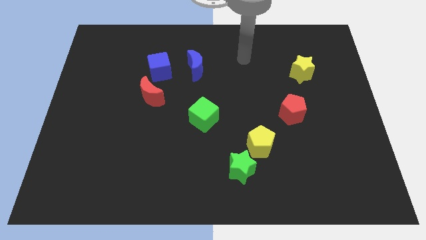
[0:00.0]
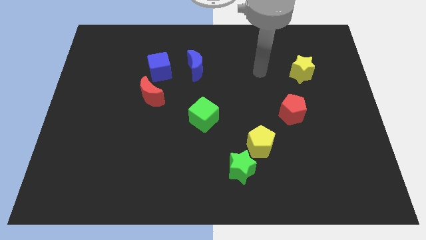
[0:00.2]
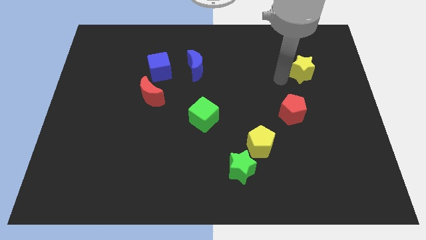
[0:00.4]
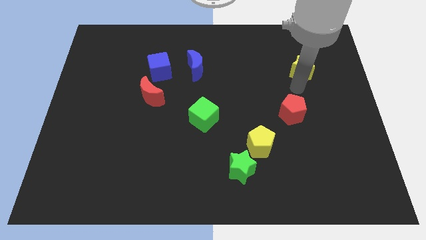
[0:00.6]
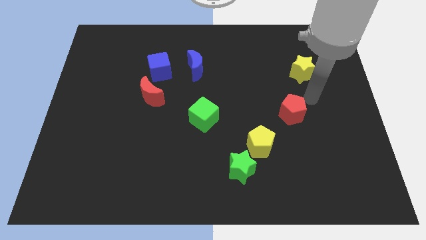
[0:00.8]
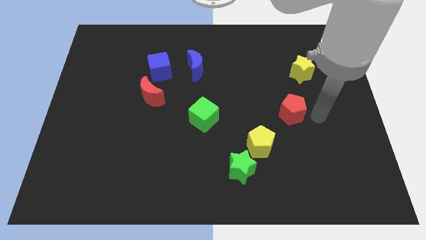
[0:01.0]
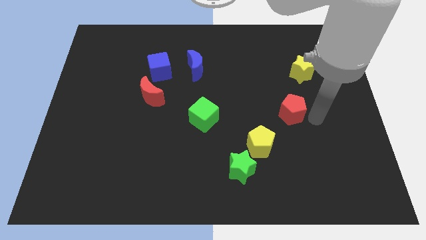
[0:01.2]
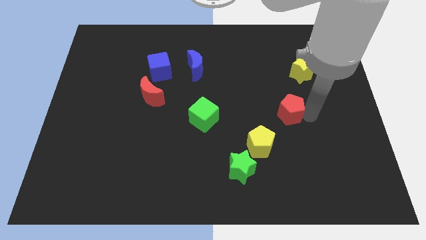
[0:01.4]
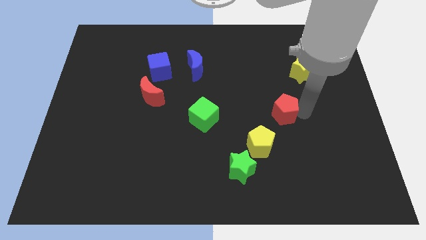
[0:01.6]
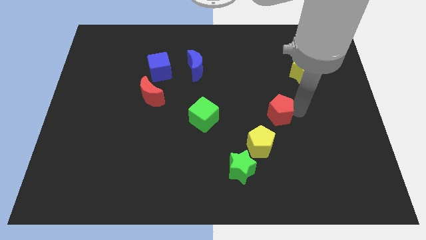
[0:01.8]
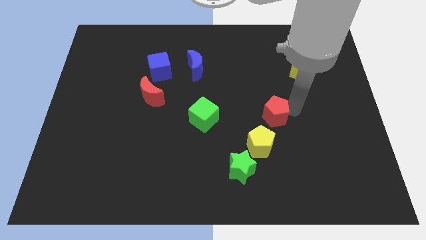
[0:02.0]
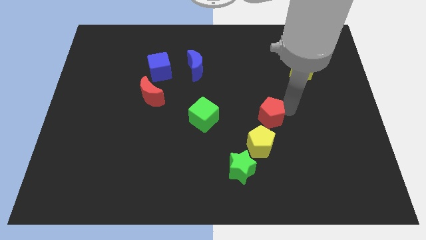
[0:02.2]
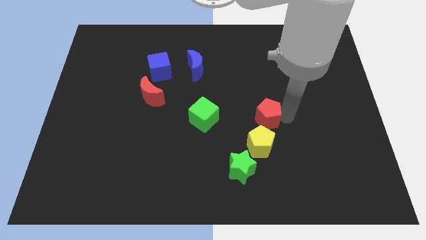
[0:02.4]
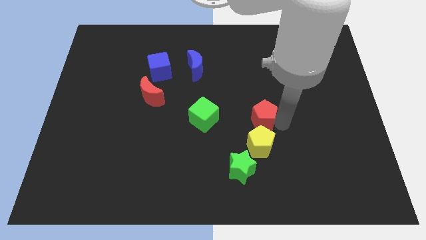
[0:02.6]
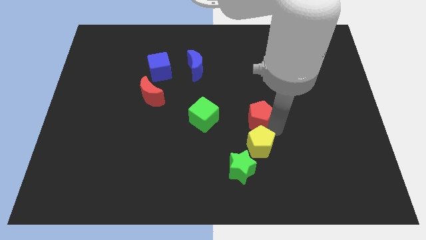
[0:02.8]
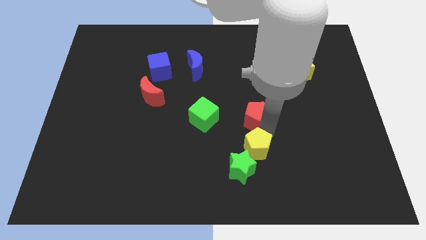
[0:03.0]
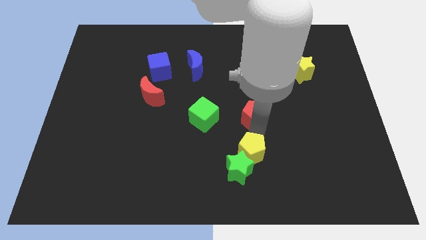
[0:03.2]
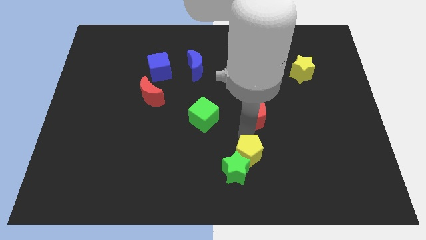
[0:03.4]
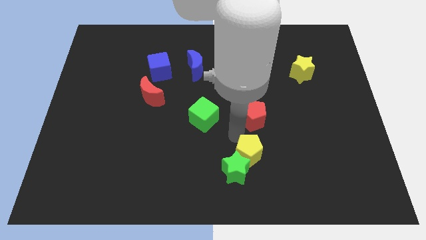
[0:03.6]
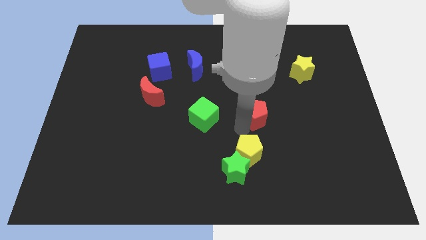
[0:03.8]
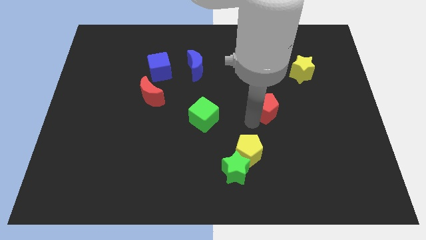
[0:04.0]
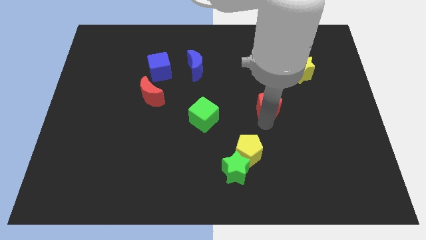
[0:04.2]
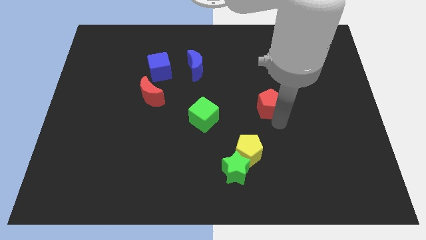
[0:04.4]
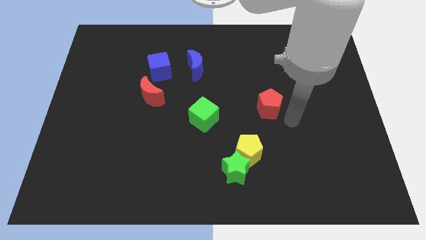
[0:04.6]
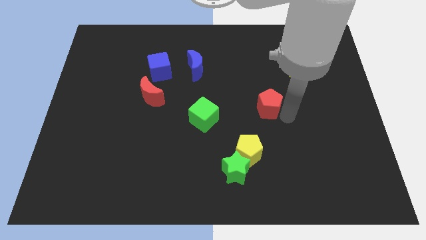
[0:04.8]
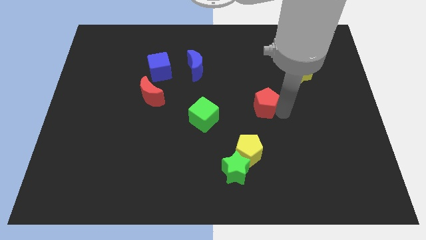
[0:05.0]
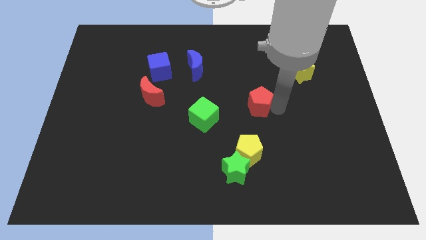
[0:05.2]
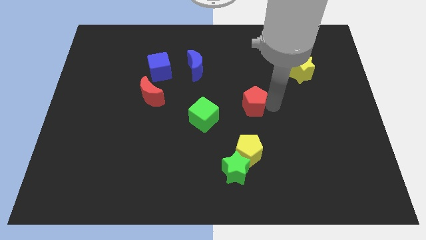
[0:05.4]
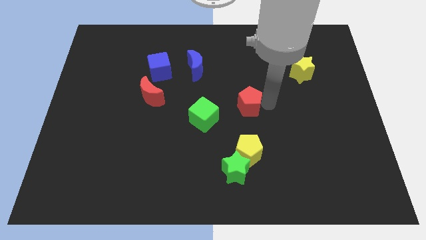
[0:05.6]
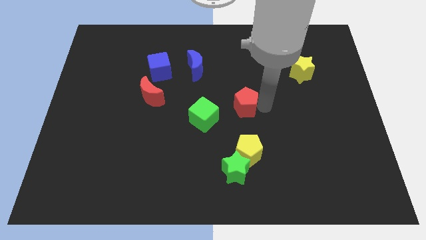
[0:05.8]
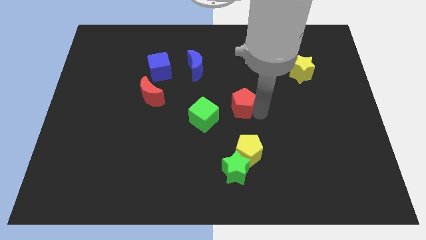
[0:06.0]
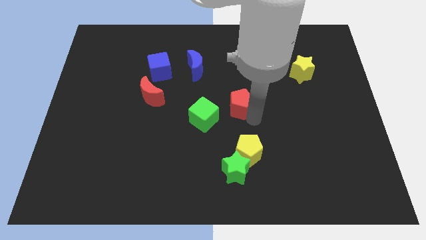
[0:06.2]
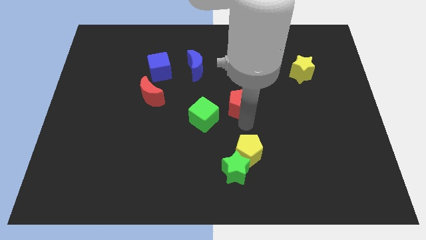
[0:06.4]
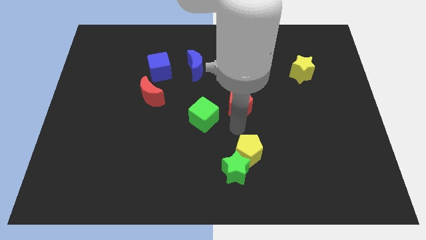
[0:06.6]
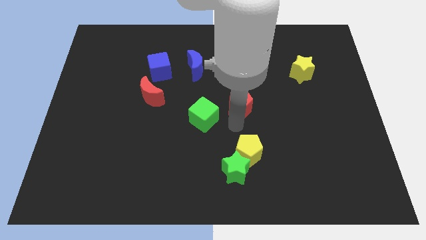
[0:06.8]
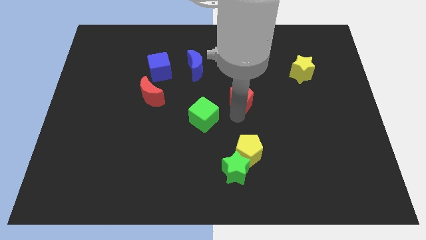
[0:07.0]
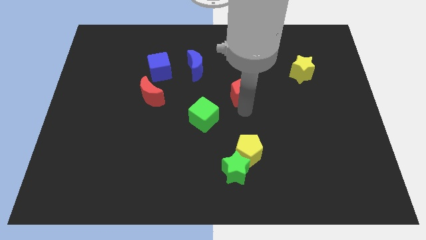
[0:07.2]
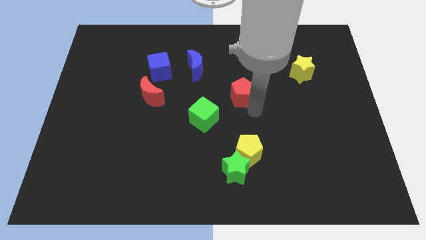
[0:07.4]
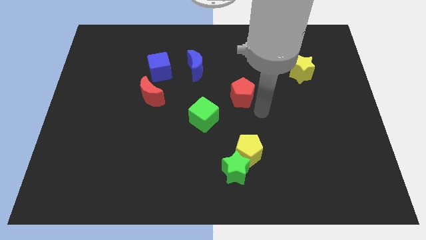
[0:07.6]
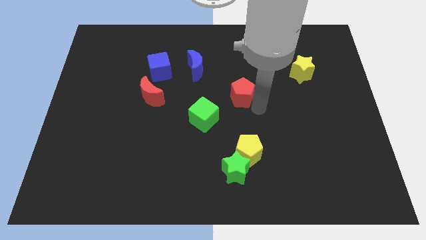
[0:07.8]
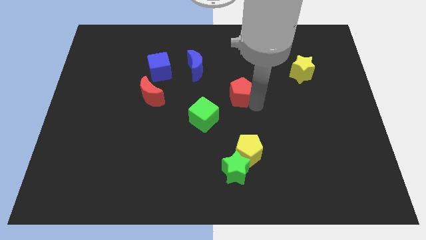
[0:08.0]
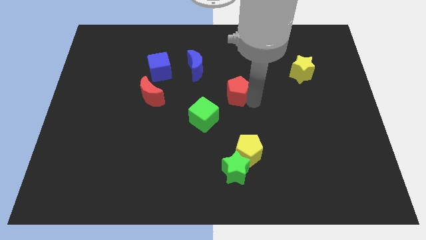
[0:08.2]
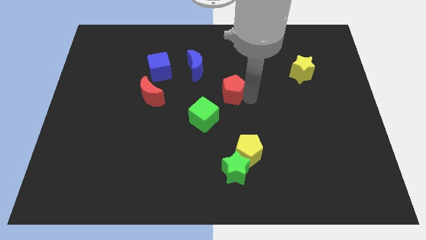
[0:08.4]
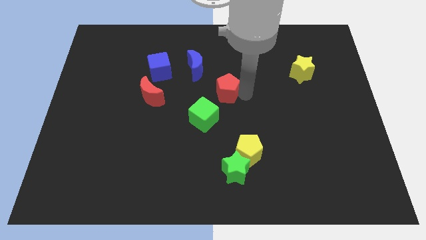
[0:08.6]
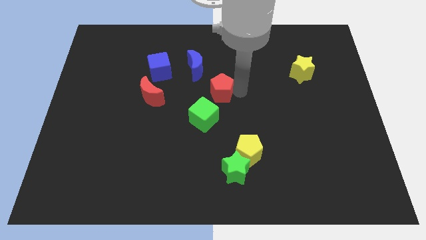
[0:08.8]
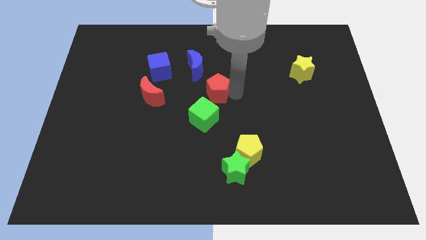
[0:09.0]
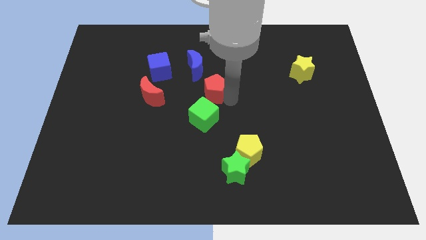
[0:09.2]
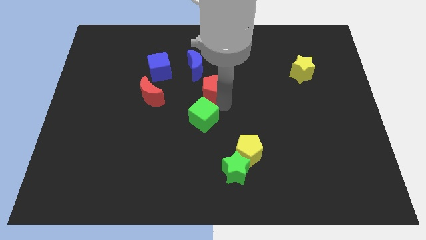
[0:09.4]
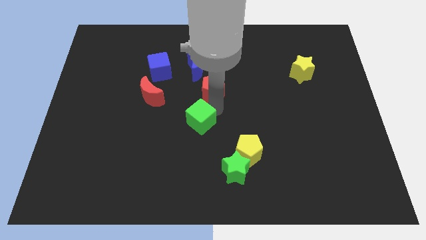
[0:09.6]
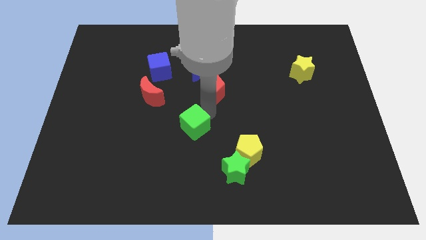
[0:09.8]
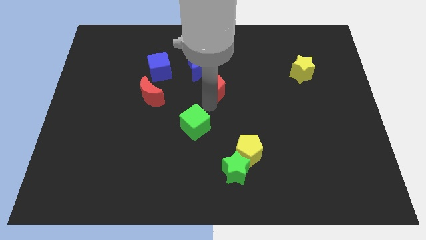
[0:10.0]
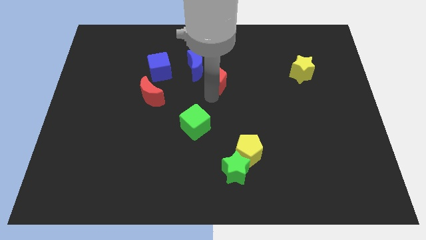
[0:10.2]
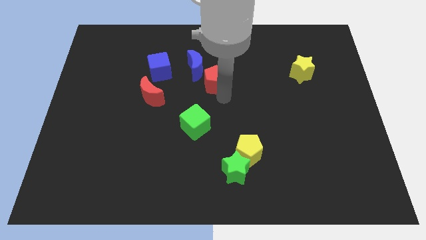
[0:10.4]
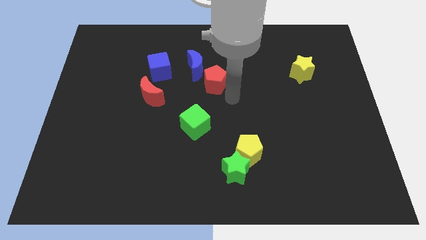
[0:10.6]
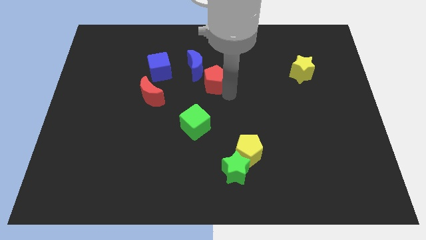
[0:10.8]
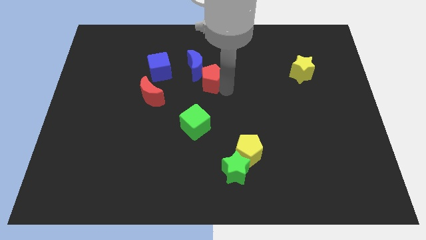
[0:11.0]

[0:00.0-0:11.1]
slide the red pentagon next to the blue moon
